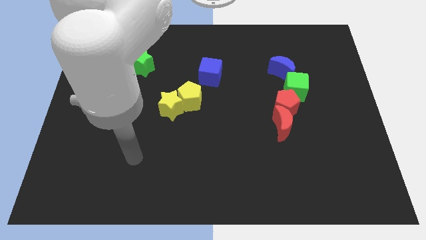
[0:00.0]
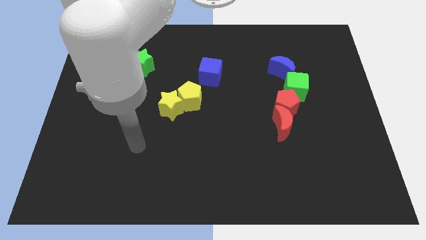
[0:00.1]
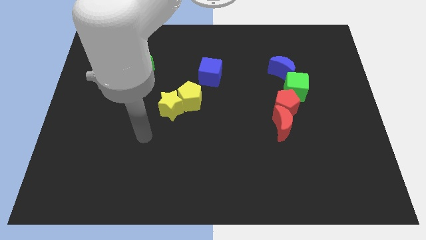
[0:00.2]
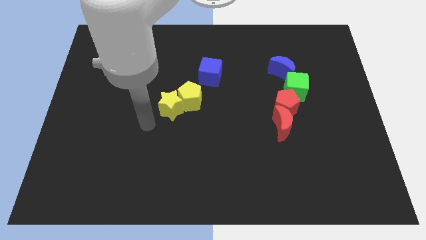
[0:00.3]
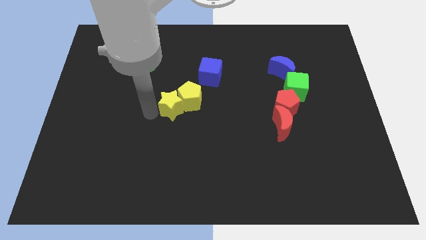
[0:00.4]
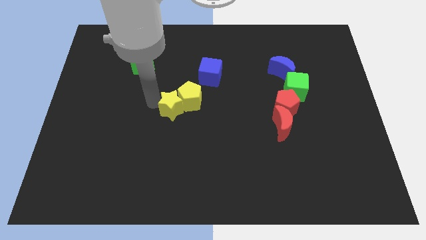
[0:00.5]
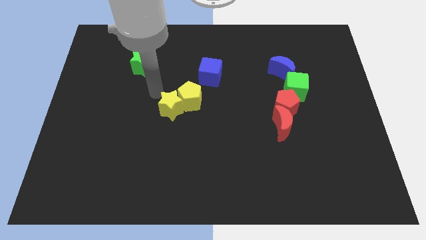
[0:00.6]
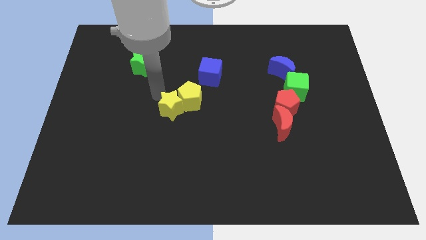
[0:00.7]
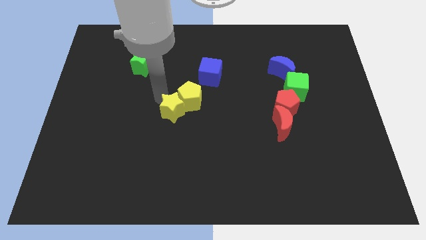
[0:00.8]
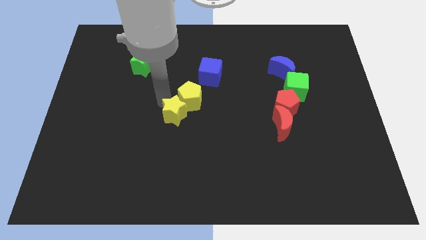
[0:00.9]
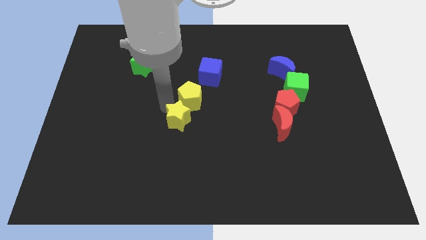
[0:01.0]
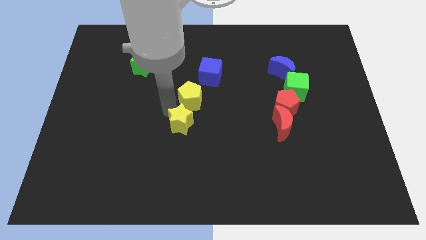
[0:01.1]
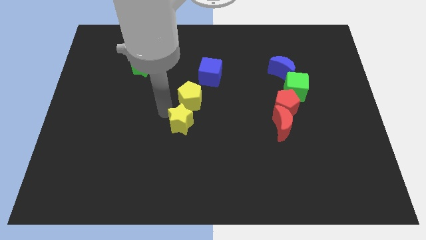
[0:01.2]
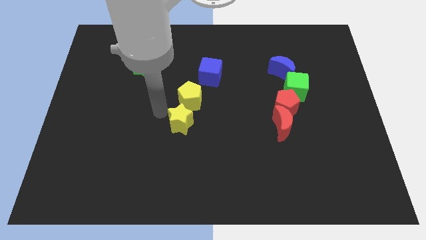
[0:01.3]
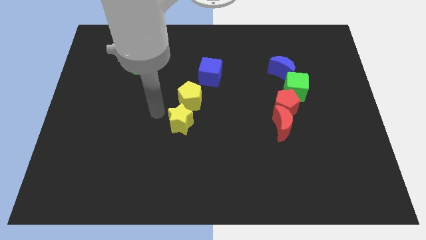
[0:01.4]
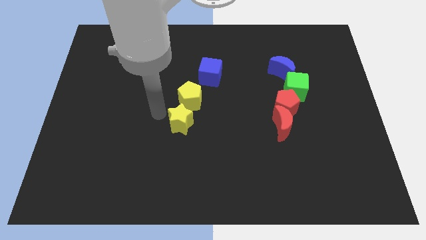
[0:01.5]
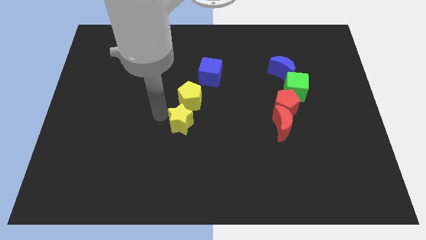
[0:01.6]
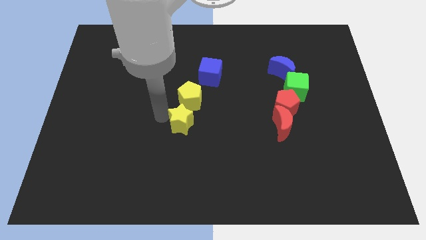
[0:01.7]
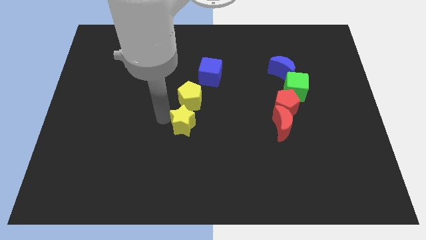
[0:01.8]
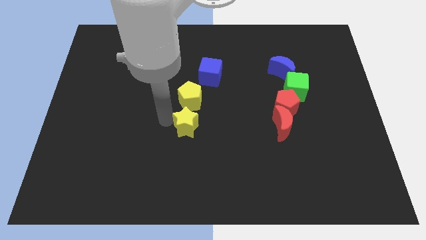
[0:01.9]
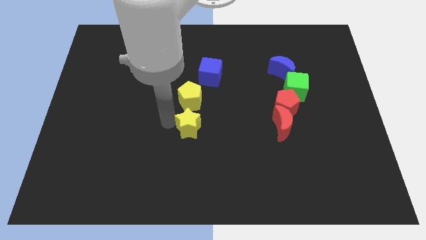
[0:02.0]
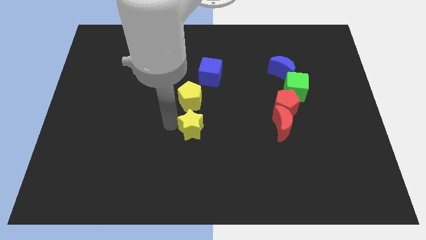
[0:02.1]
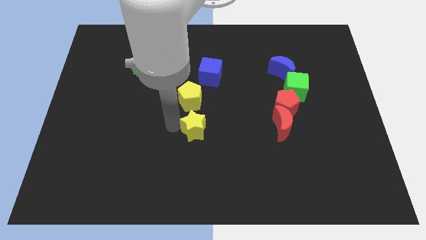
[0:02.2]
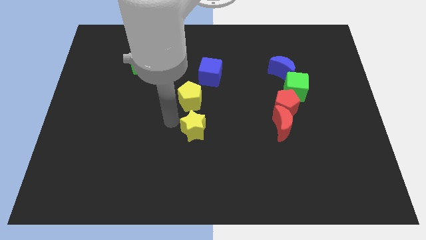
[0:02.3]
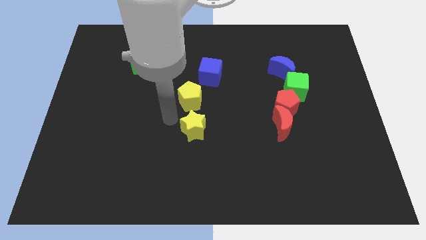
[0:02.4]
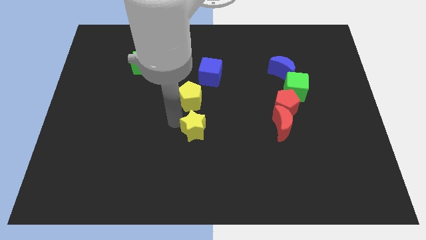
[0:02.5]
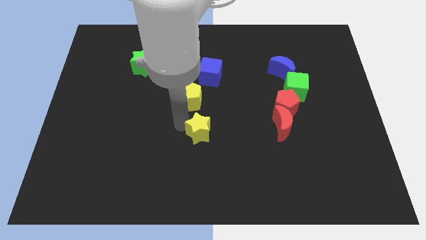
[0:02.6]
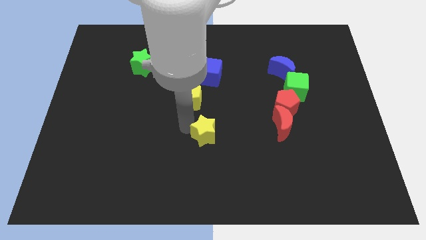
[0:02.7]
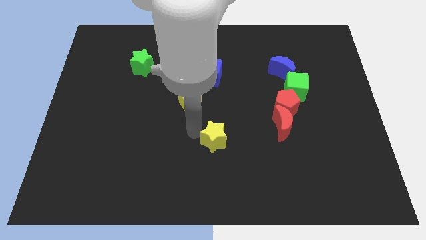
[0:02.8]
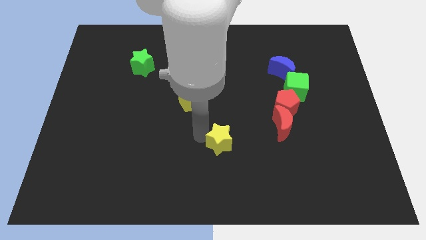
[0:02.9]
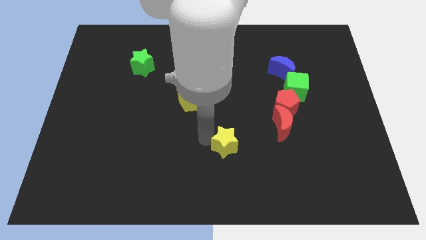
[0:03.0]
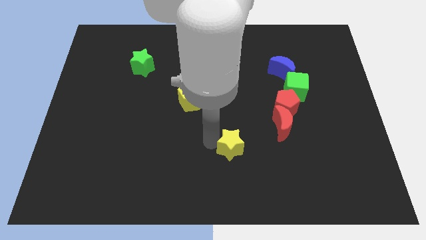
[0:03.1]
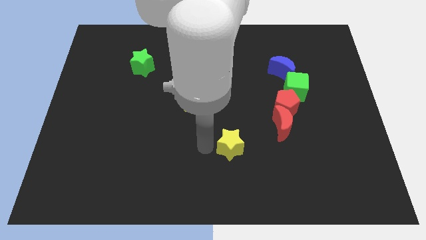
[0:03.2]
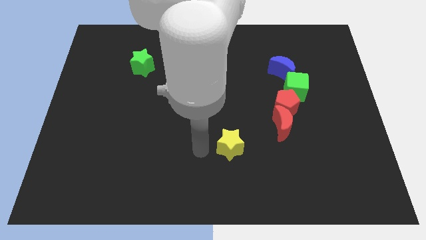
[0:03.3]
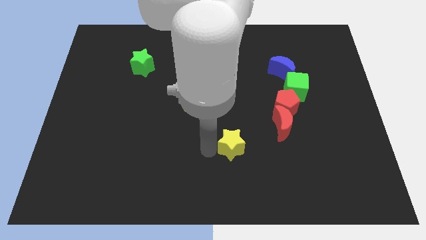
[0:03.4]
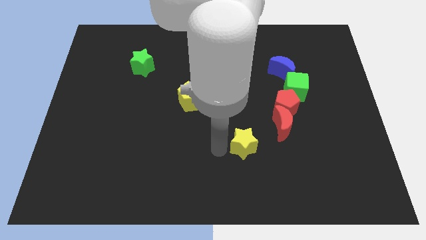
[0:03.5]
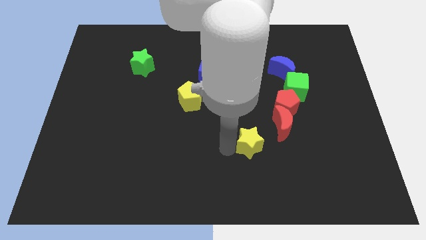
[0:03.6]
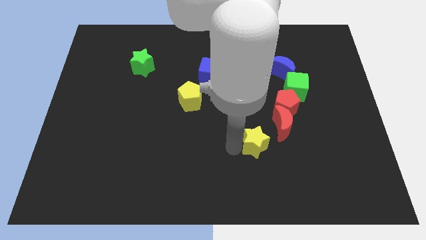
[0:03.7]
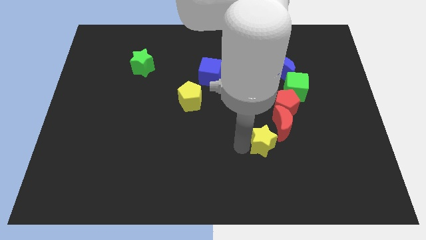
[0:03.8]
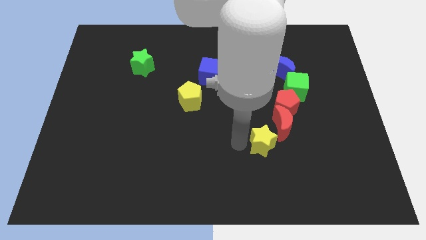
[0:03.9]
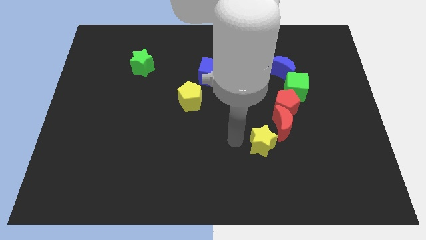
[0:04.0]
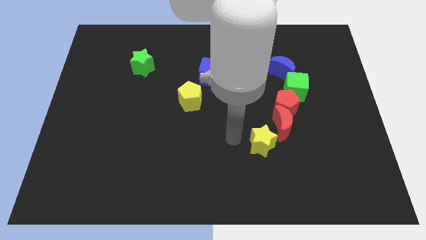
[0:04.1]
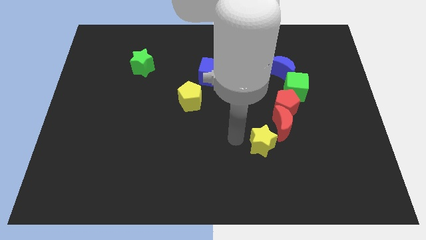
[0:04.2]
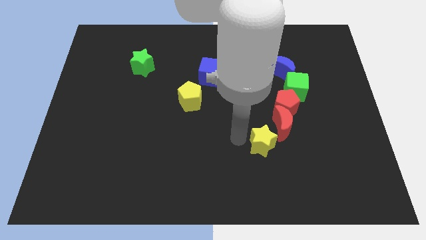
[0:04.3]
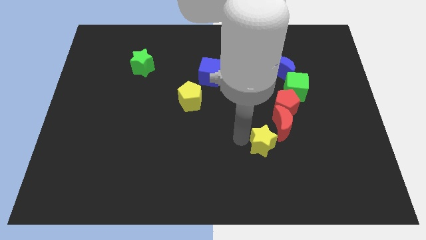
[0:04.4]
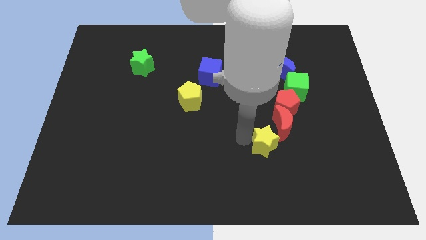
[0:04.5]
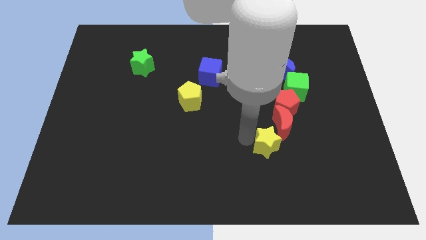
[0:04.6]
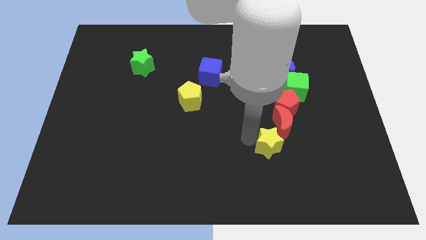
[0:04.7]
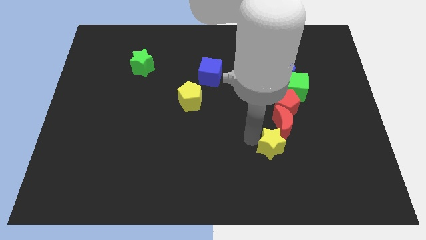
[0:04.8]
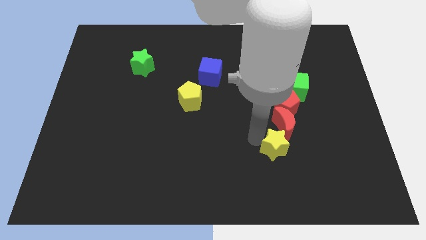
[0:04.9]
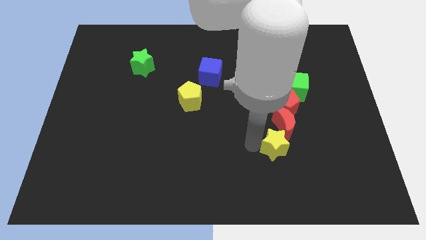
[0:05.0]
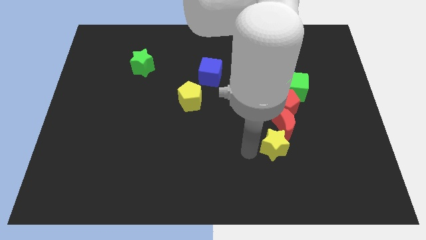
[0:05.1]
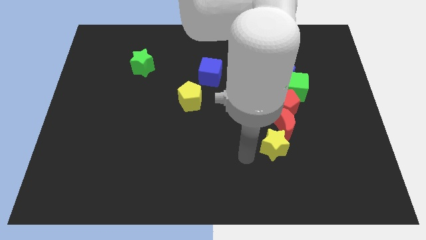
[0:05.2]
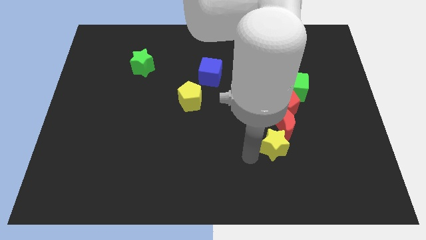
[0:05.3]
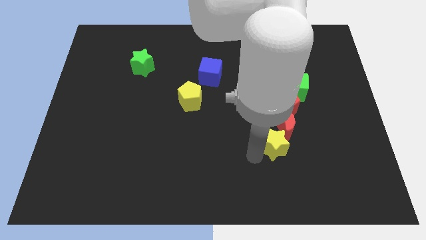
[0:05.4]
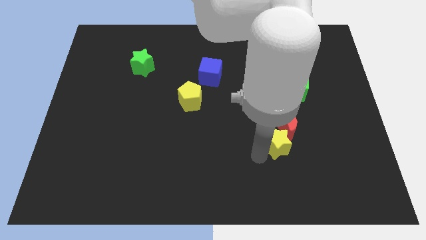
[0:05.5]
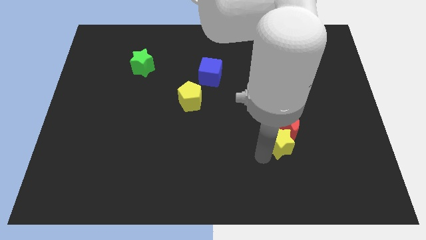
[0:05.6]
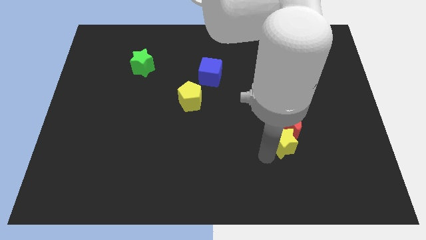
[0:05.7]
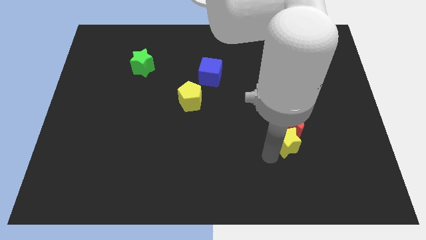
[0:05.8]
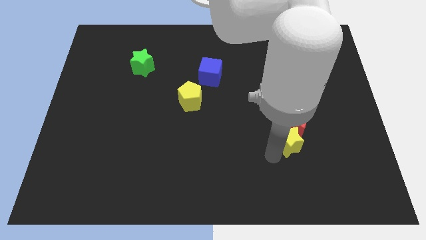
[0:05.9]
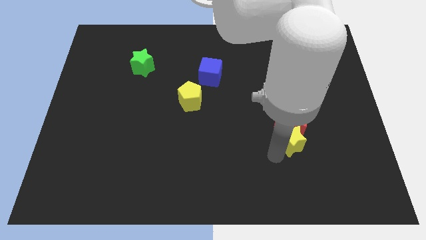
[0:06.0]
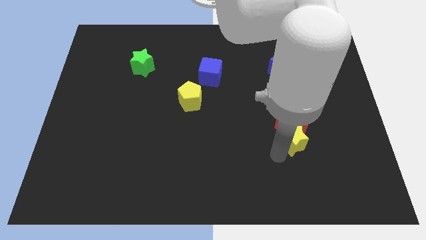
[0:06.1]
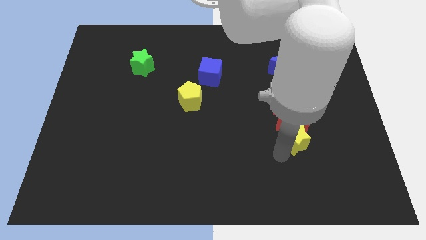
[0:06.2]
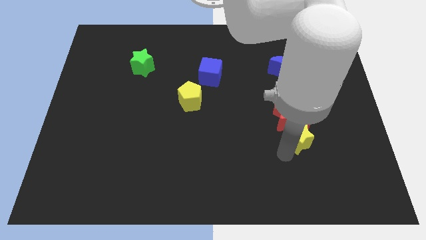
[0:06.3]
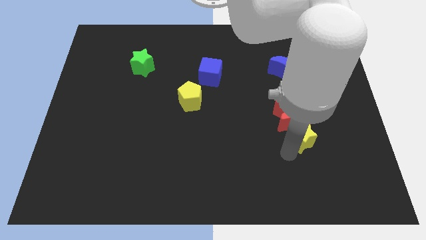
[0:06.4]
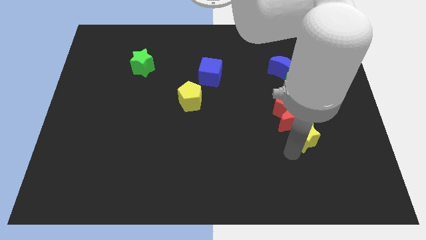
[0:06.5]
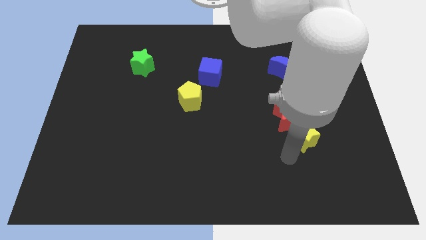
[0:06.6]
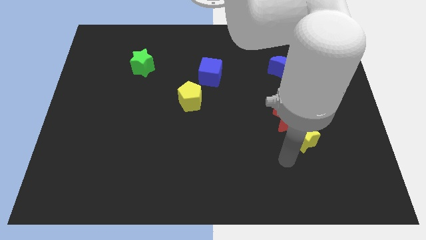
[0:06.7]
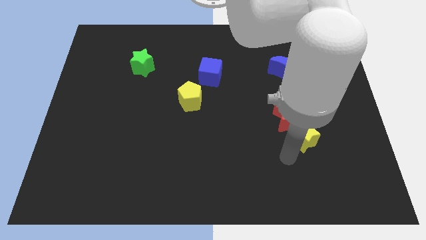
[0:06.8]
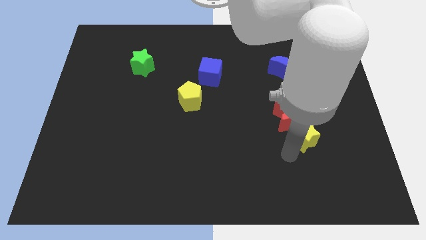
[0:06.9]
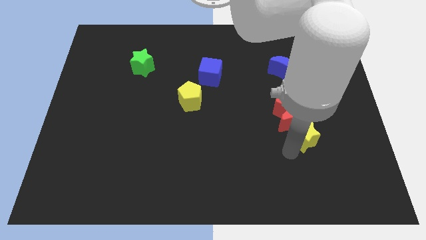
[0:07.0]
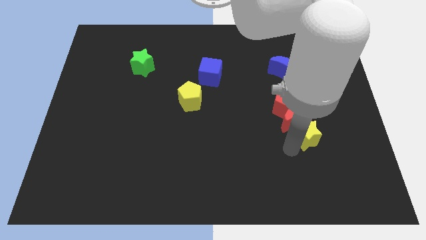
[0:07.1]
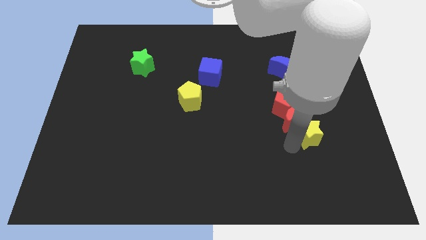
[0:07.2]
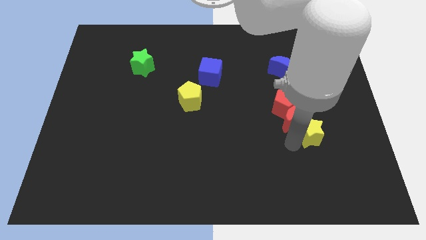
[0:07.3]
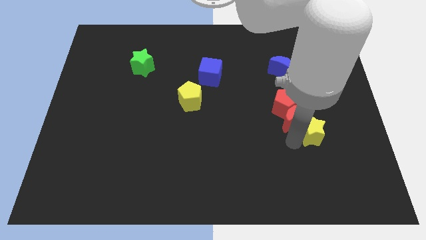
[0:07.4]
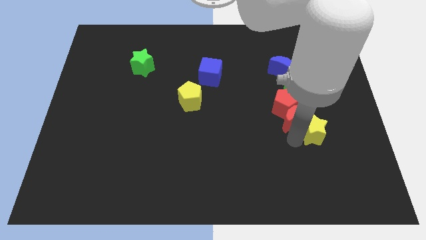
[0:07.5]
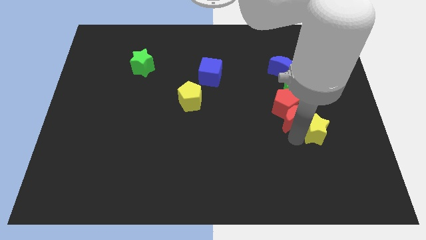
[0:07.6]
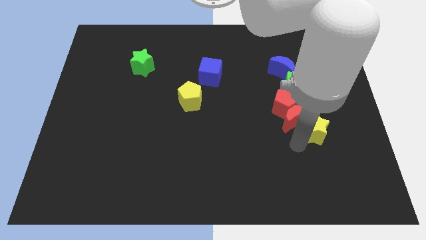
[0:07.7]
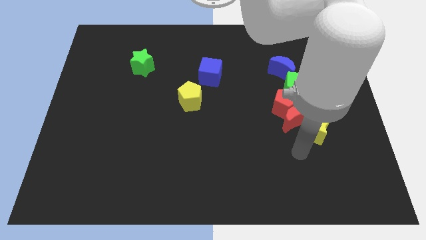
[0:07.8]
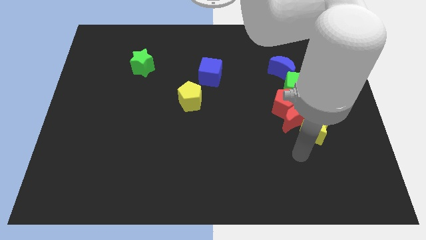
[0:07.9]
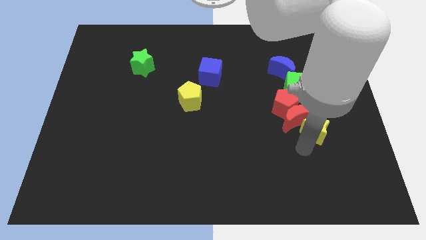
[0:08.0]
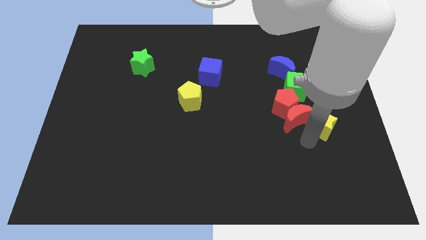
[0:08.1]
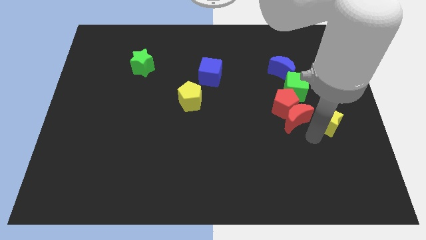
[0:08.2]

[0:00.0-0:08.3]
move the yellow star right of the red pentagon
